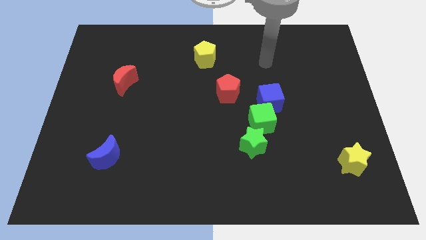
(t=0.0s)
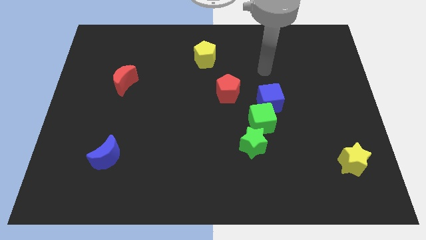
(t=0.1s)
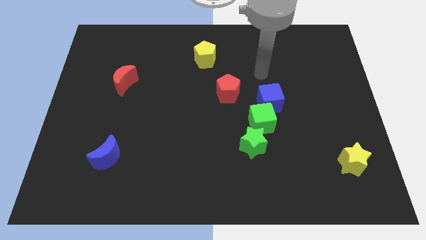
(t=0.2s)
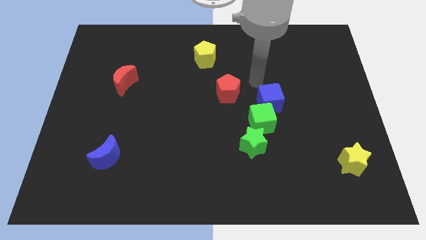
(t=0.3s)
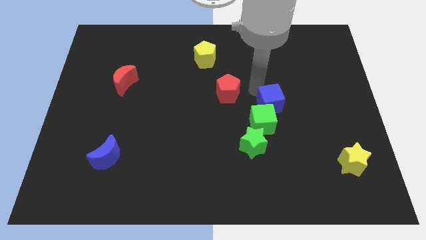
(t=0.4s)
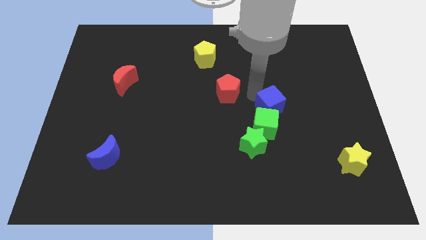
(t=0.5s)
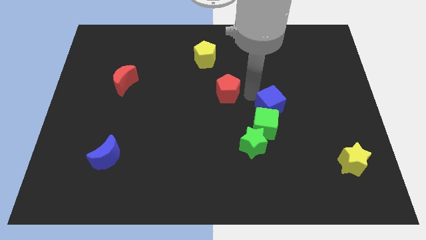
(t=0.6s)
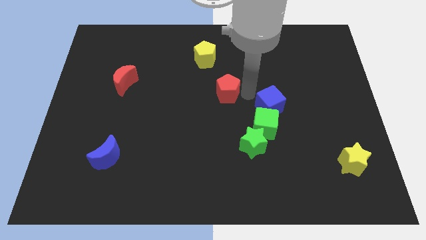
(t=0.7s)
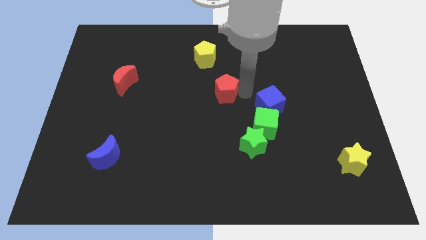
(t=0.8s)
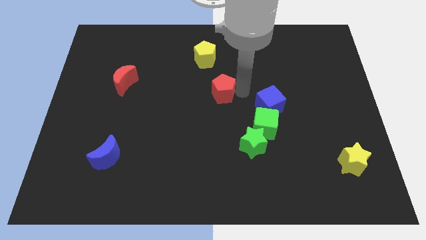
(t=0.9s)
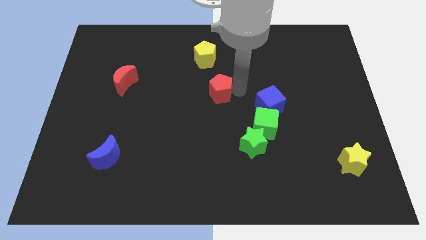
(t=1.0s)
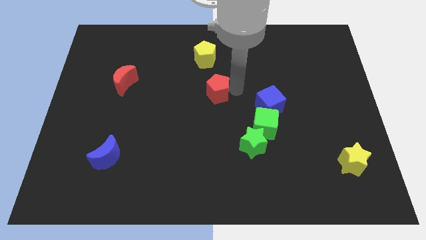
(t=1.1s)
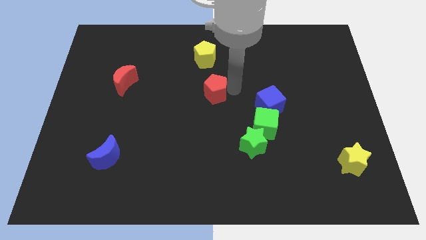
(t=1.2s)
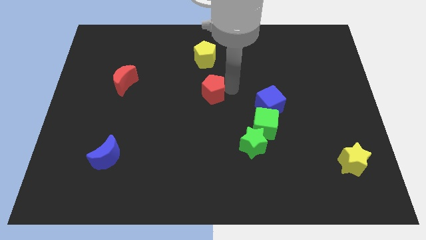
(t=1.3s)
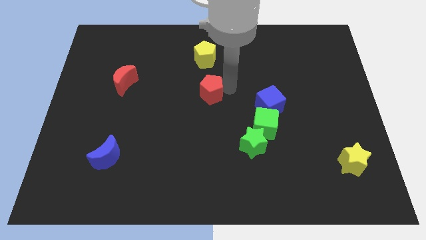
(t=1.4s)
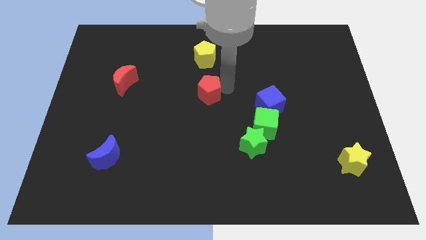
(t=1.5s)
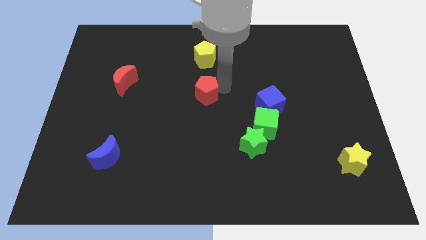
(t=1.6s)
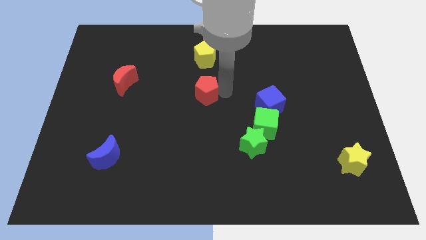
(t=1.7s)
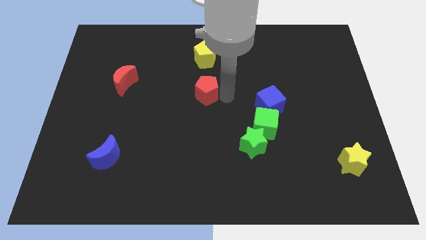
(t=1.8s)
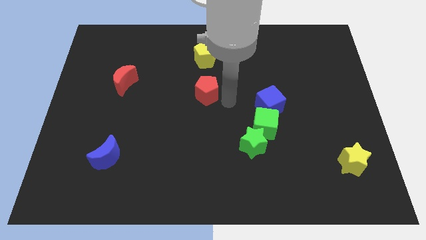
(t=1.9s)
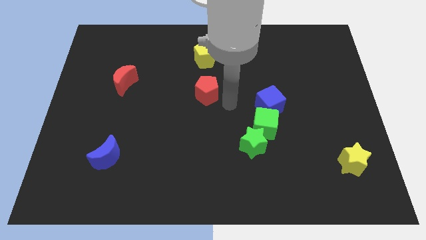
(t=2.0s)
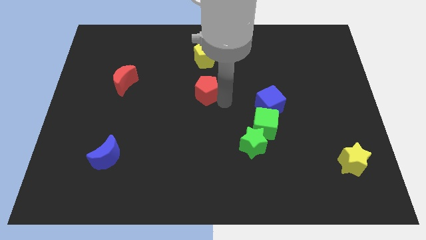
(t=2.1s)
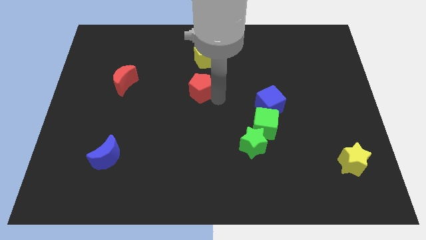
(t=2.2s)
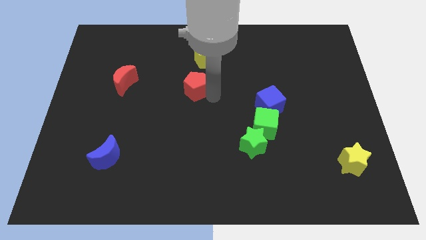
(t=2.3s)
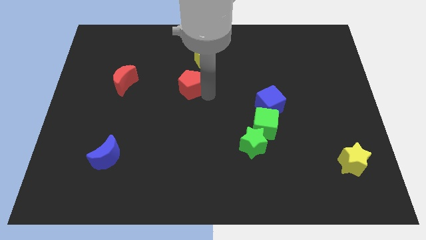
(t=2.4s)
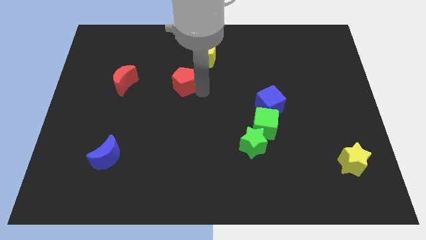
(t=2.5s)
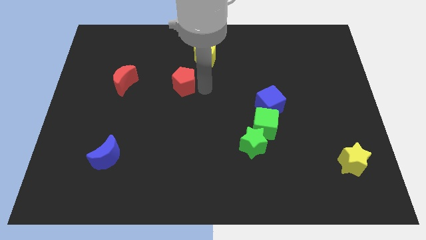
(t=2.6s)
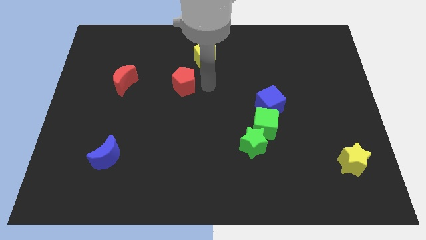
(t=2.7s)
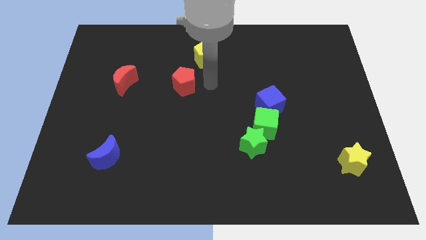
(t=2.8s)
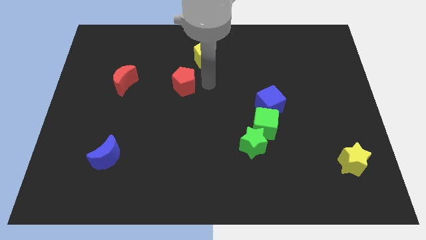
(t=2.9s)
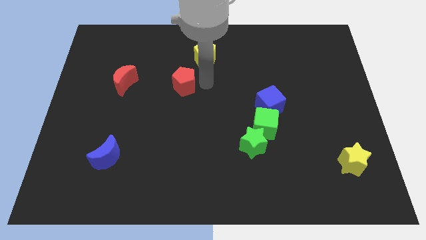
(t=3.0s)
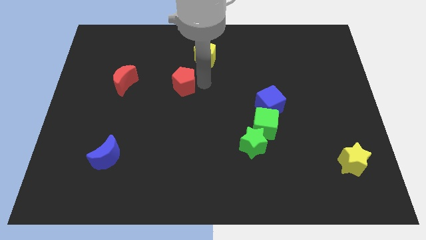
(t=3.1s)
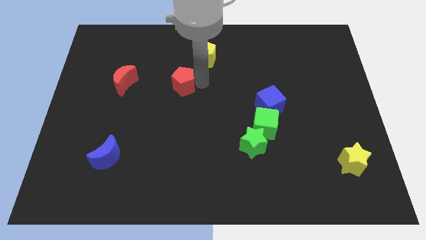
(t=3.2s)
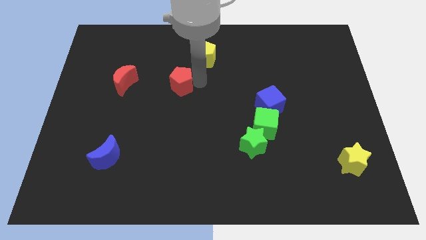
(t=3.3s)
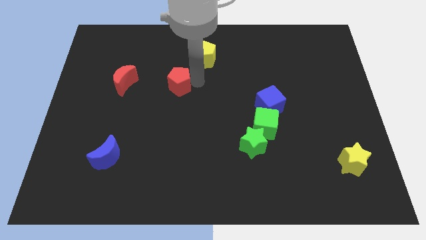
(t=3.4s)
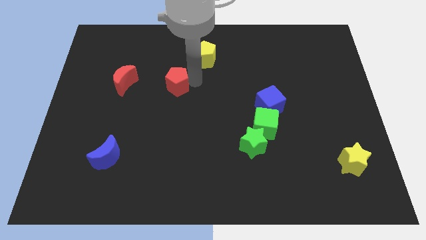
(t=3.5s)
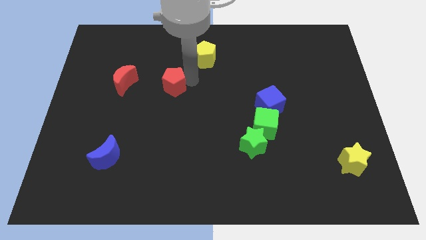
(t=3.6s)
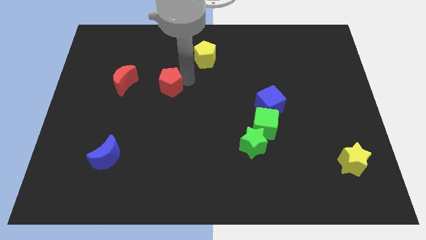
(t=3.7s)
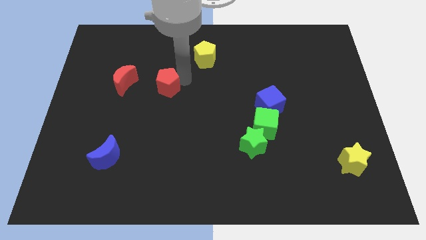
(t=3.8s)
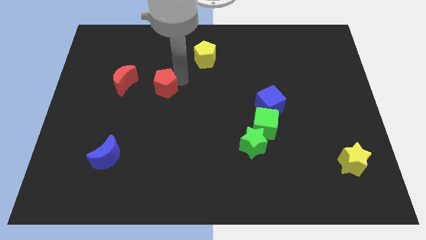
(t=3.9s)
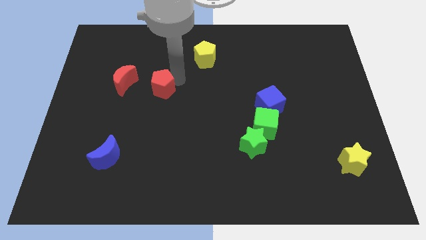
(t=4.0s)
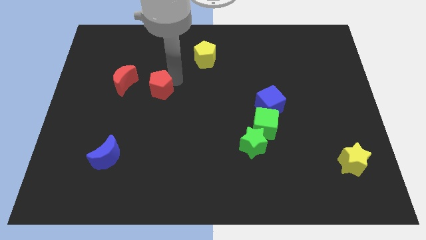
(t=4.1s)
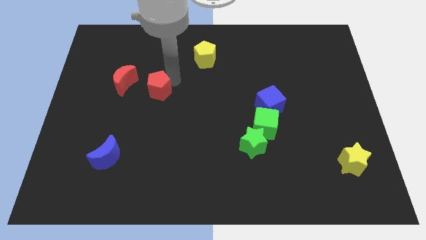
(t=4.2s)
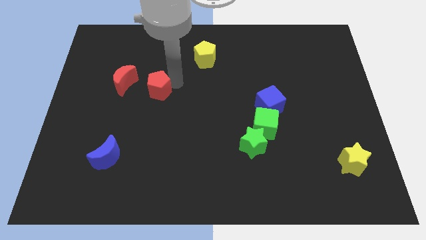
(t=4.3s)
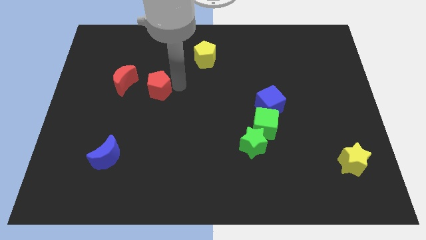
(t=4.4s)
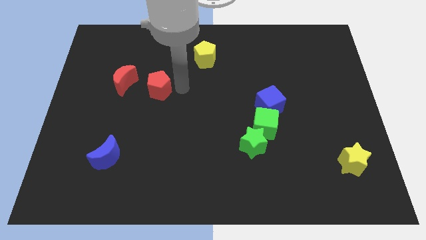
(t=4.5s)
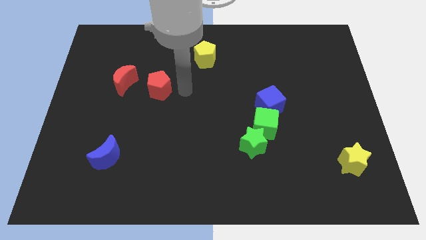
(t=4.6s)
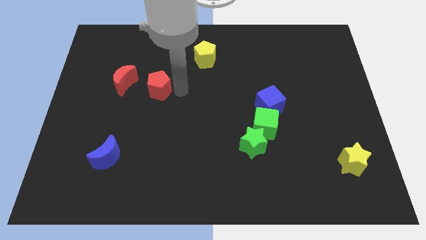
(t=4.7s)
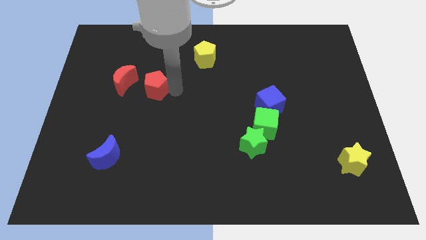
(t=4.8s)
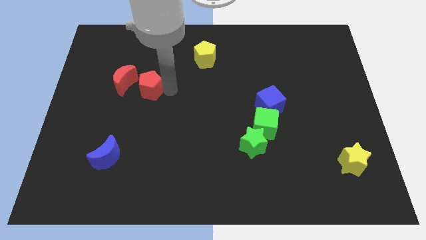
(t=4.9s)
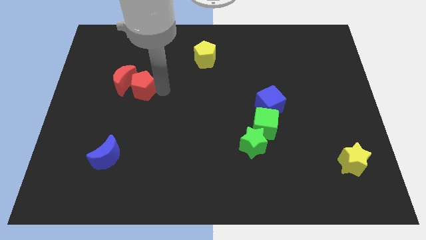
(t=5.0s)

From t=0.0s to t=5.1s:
put the red pentagon towards the red moon

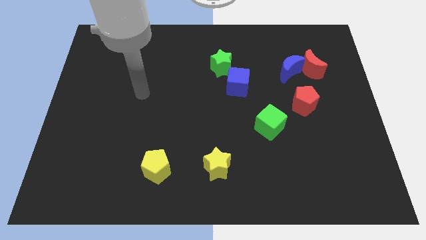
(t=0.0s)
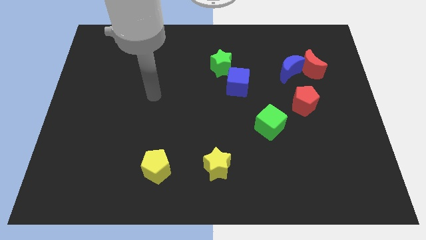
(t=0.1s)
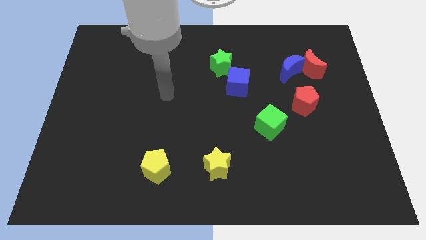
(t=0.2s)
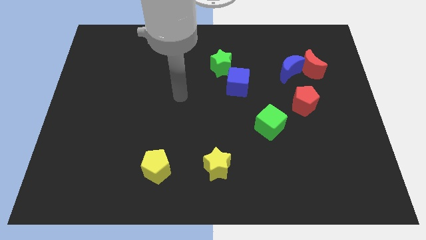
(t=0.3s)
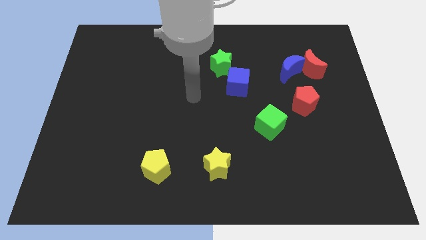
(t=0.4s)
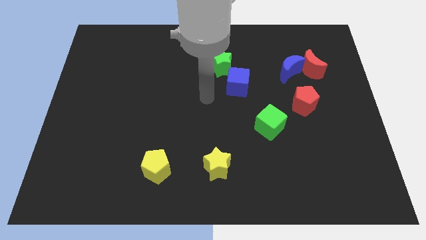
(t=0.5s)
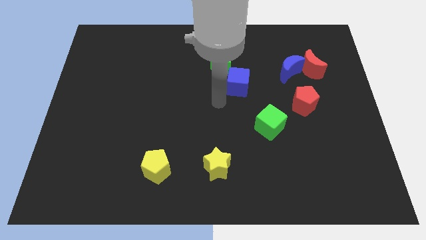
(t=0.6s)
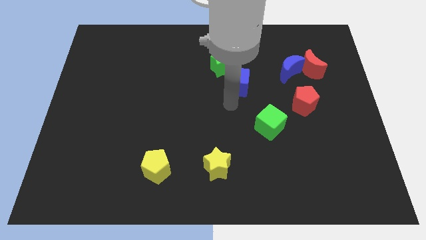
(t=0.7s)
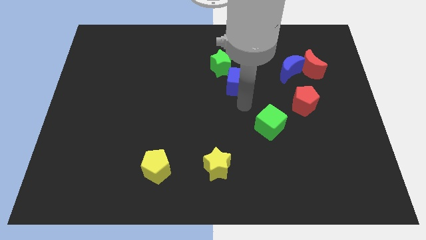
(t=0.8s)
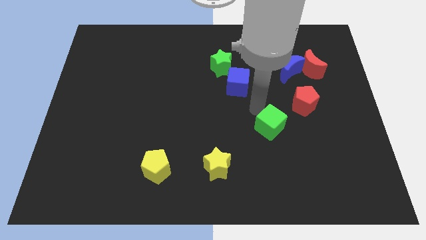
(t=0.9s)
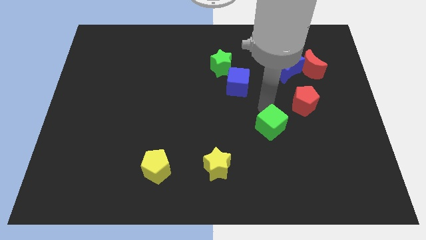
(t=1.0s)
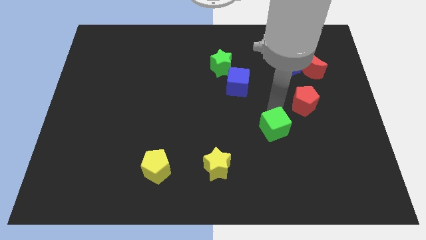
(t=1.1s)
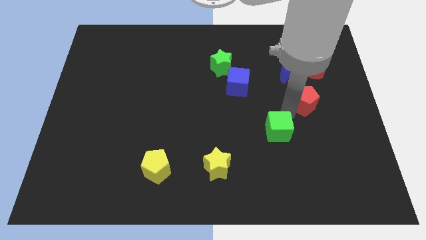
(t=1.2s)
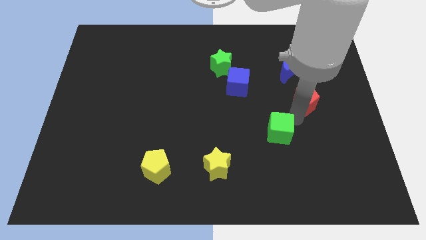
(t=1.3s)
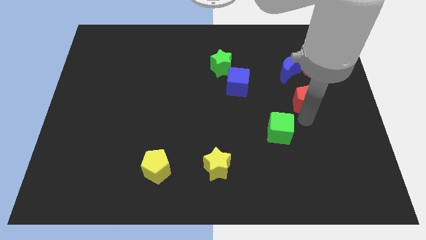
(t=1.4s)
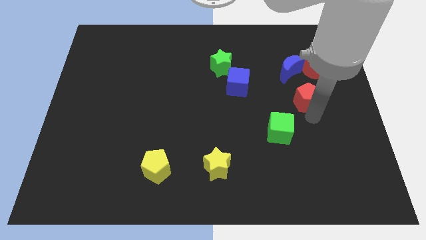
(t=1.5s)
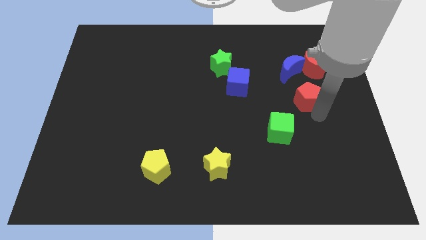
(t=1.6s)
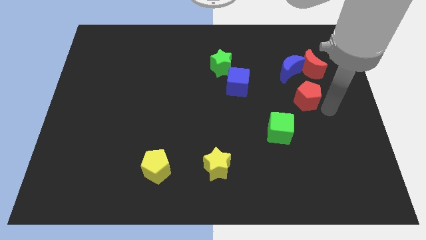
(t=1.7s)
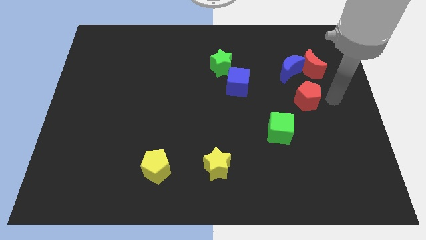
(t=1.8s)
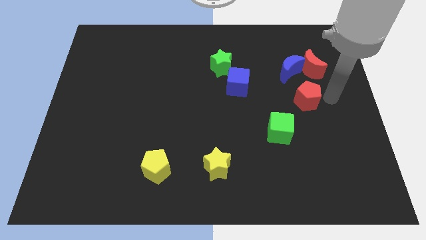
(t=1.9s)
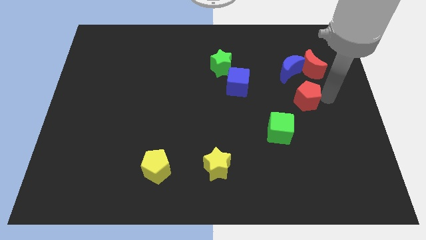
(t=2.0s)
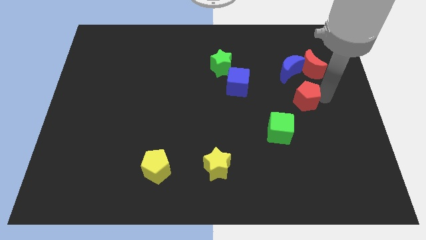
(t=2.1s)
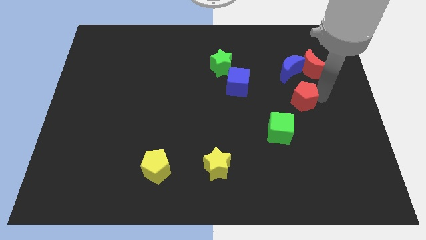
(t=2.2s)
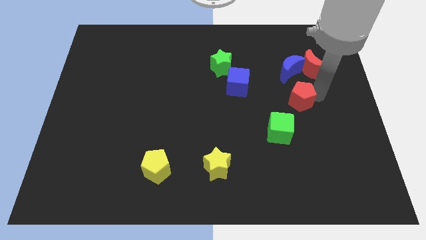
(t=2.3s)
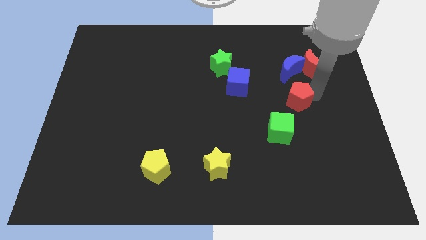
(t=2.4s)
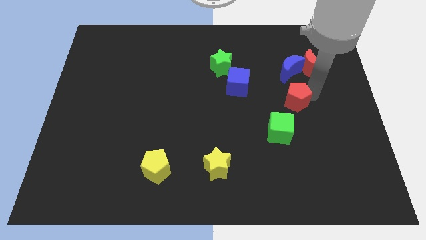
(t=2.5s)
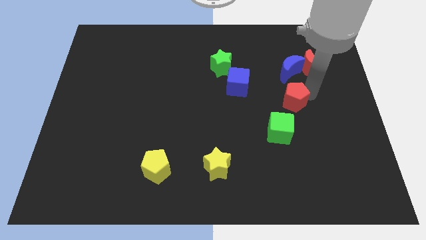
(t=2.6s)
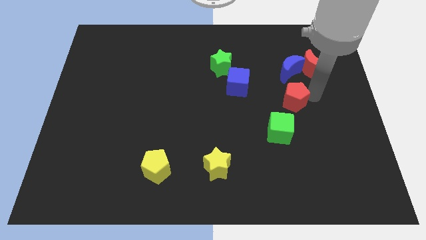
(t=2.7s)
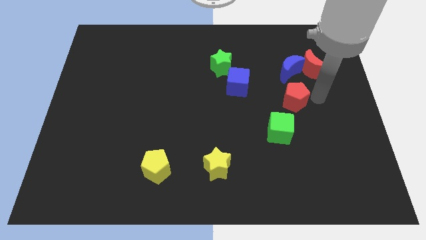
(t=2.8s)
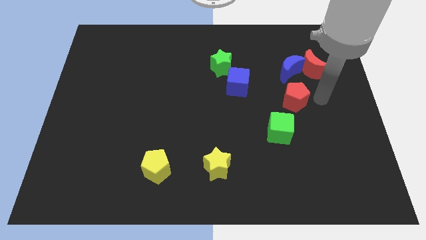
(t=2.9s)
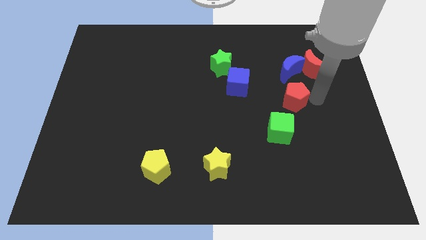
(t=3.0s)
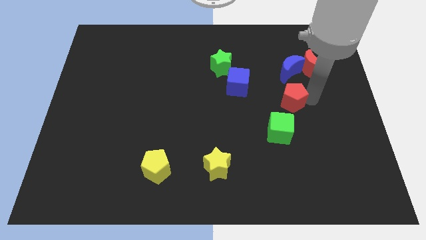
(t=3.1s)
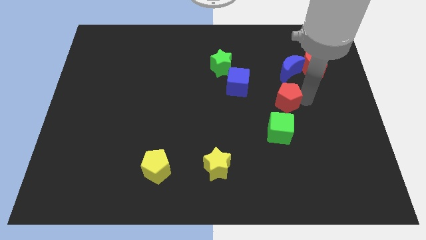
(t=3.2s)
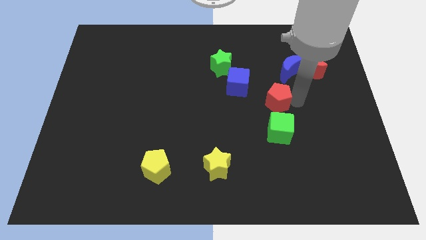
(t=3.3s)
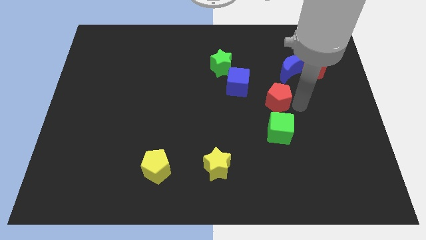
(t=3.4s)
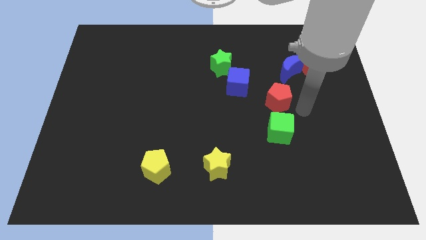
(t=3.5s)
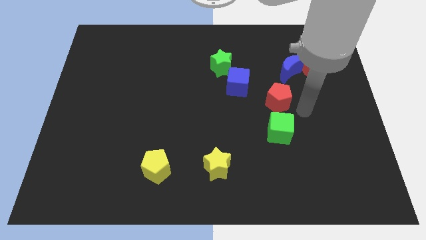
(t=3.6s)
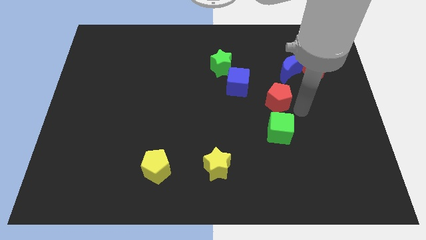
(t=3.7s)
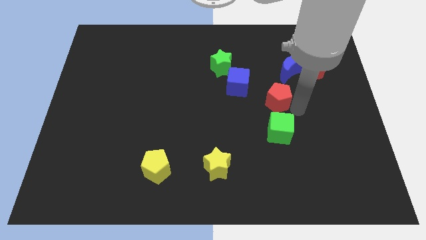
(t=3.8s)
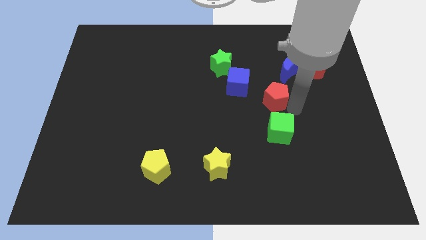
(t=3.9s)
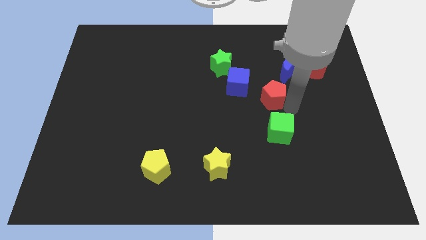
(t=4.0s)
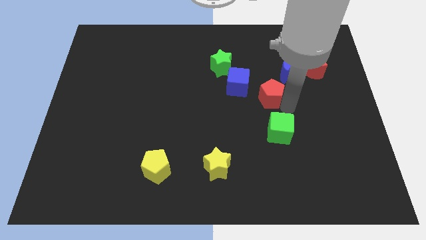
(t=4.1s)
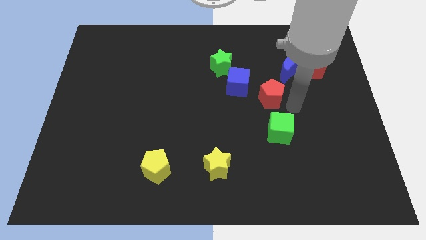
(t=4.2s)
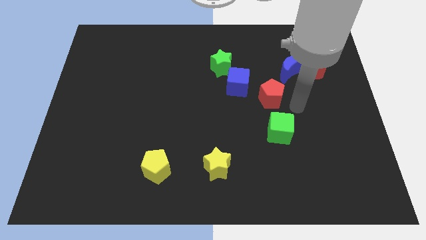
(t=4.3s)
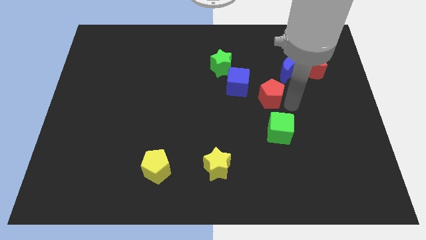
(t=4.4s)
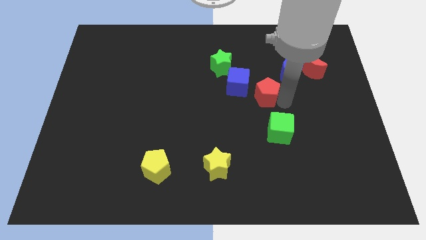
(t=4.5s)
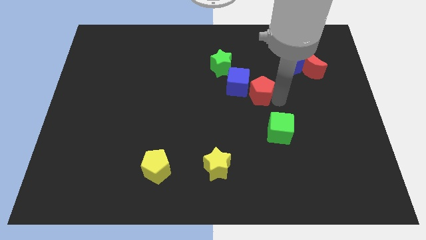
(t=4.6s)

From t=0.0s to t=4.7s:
move the red pentagon to the blue cube
